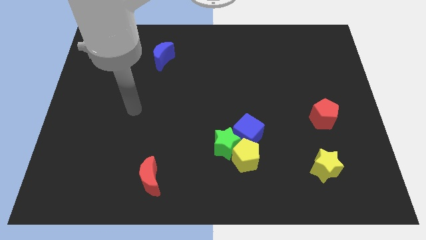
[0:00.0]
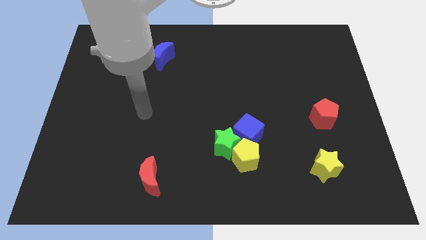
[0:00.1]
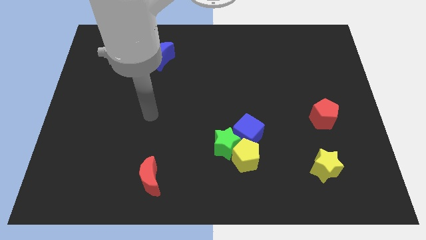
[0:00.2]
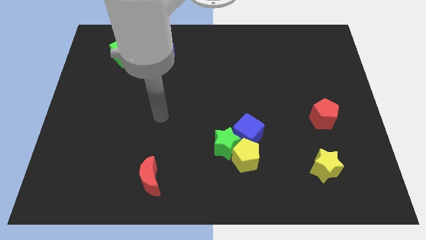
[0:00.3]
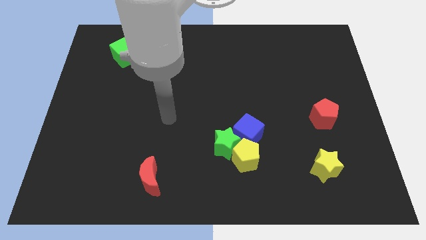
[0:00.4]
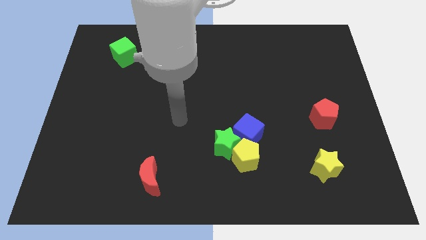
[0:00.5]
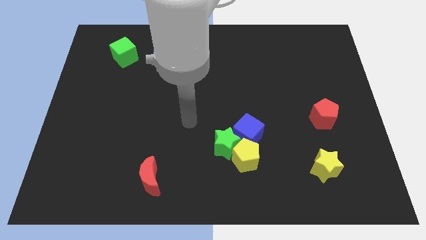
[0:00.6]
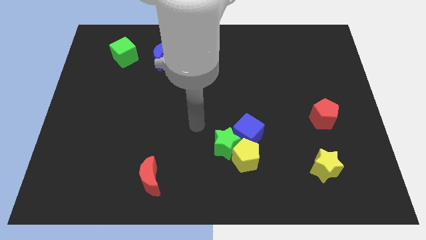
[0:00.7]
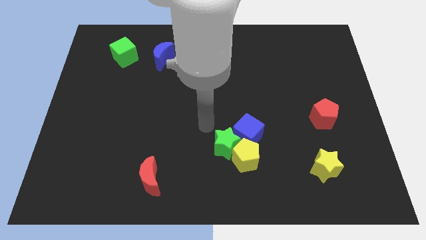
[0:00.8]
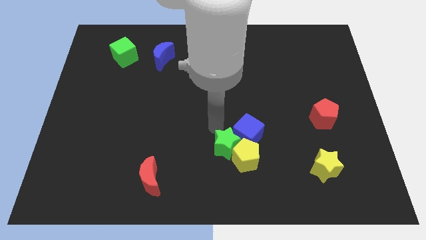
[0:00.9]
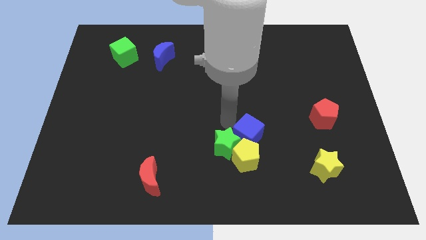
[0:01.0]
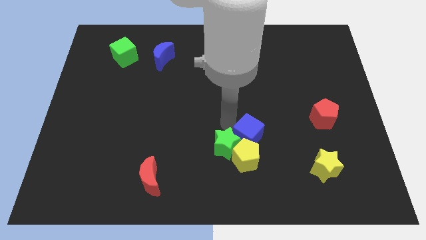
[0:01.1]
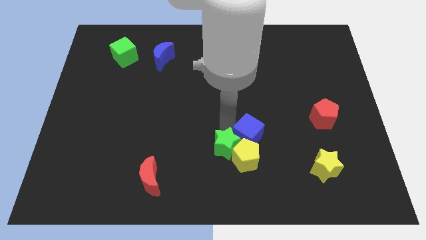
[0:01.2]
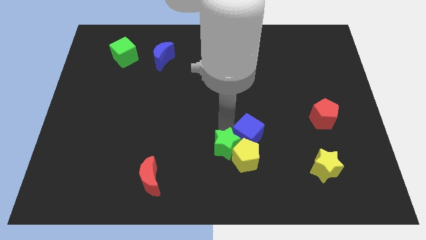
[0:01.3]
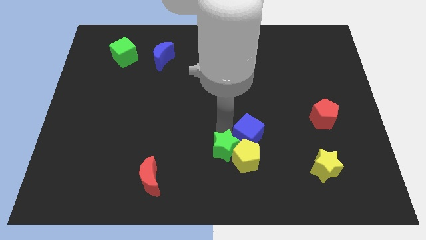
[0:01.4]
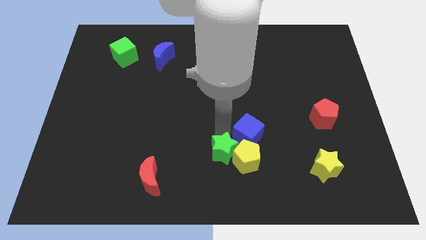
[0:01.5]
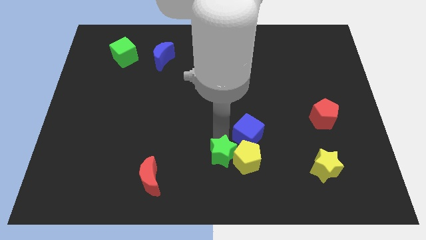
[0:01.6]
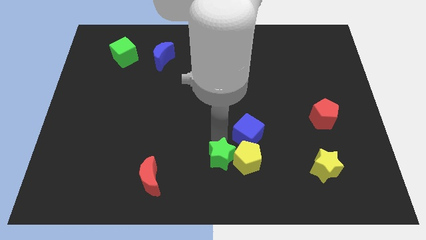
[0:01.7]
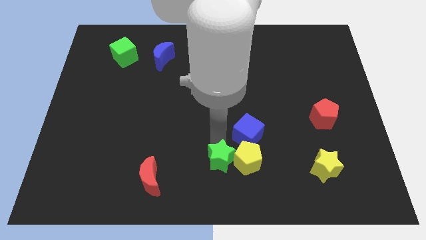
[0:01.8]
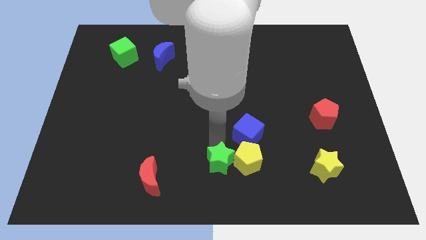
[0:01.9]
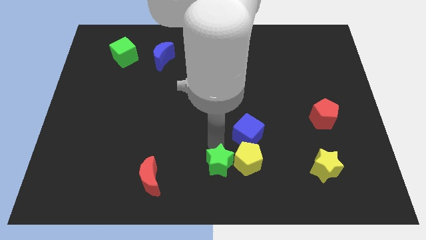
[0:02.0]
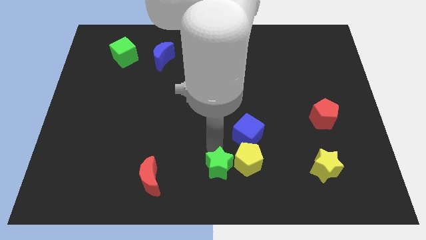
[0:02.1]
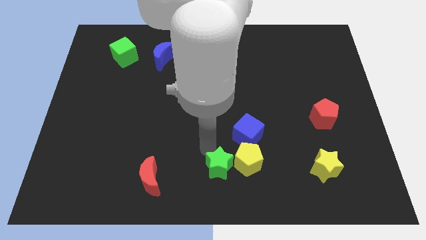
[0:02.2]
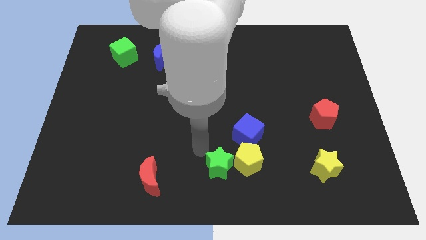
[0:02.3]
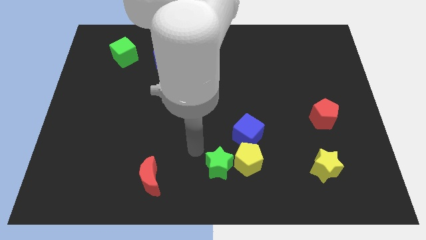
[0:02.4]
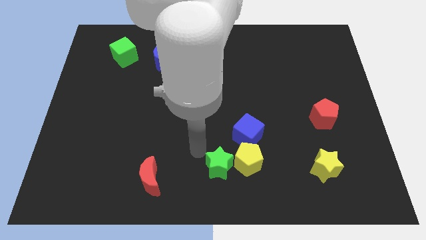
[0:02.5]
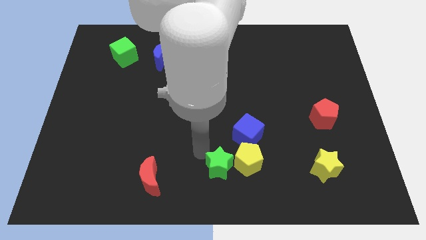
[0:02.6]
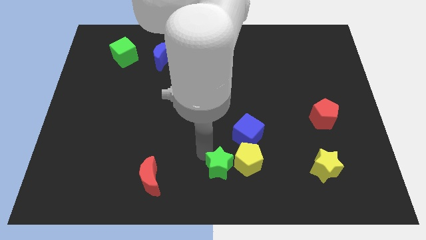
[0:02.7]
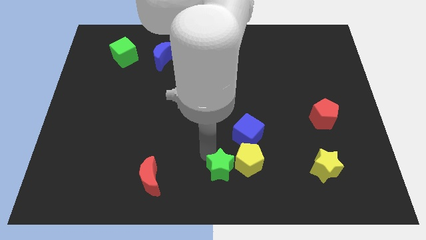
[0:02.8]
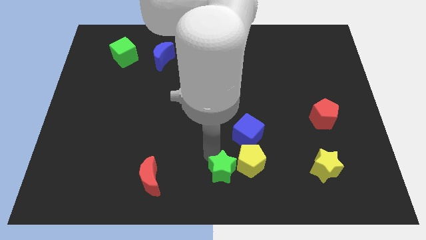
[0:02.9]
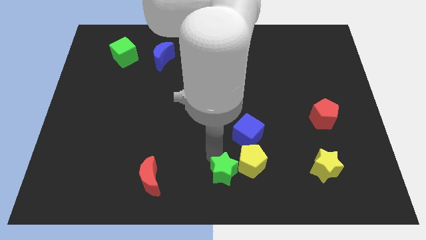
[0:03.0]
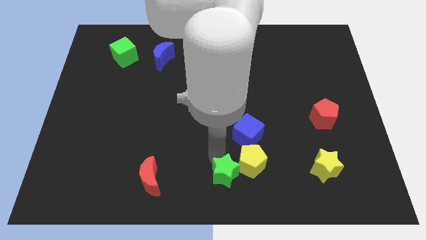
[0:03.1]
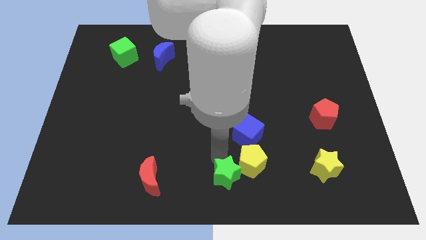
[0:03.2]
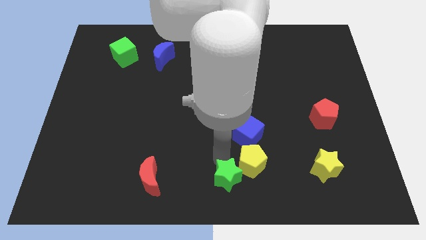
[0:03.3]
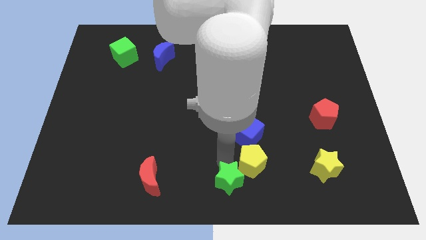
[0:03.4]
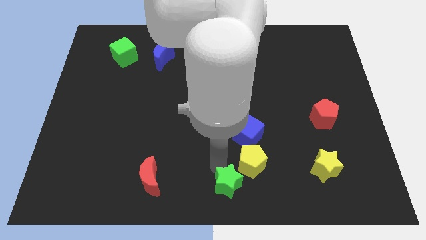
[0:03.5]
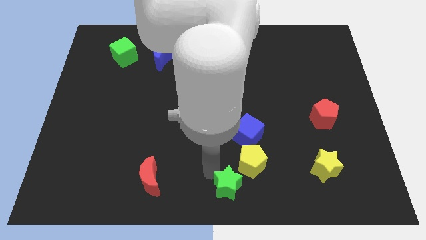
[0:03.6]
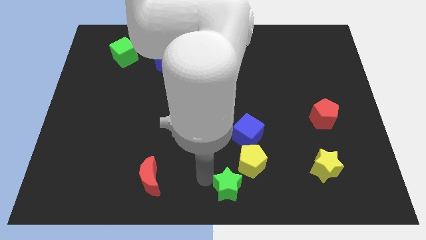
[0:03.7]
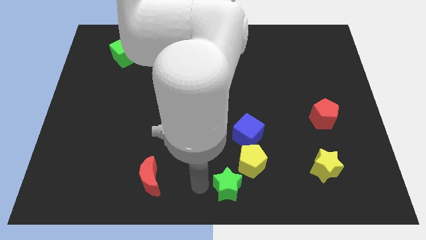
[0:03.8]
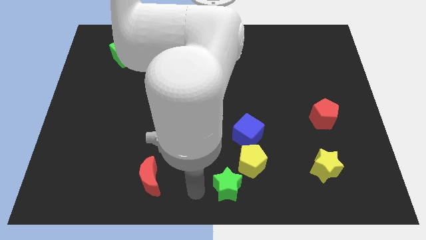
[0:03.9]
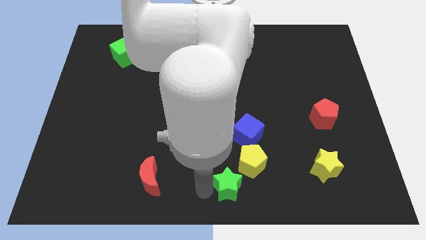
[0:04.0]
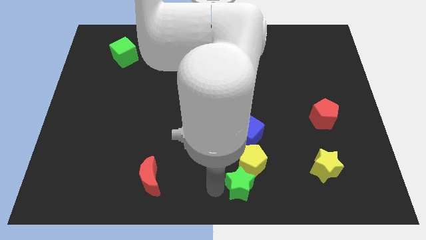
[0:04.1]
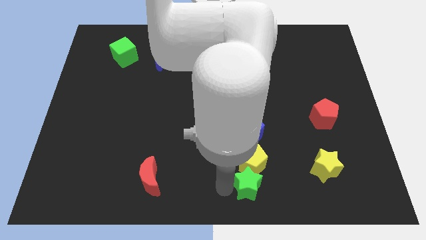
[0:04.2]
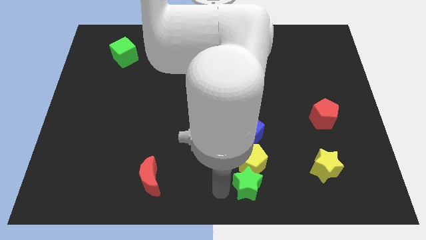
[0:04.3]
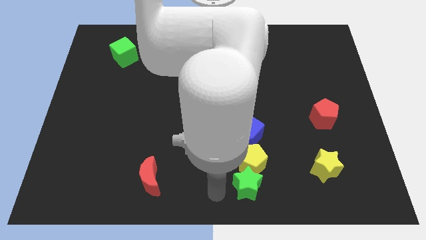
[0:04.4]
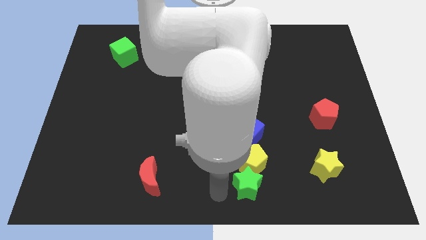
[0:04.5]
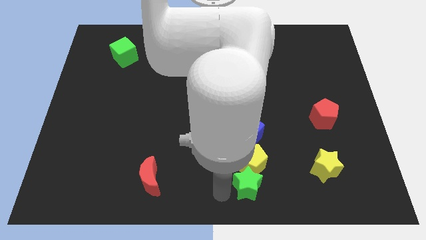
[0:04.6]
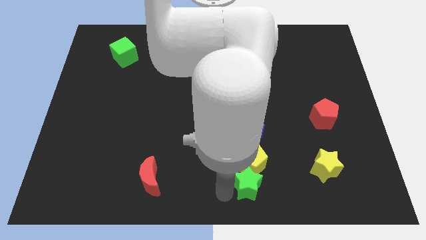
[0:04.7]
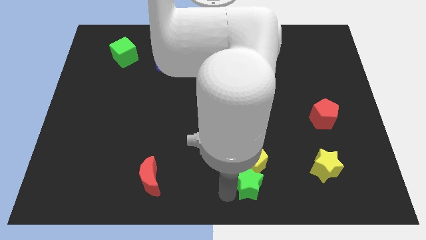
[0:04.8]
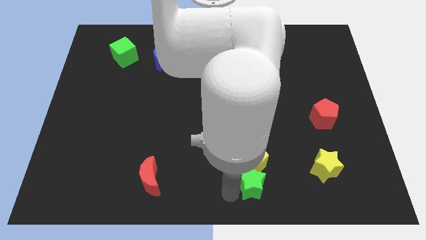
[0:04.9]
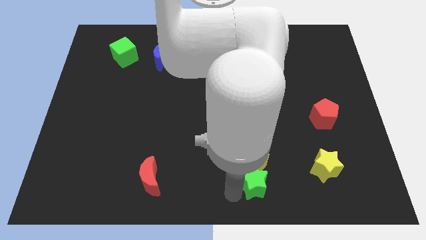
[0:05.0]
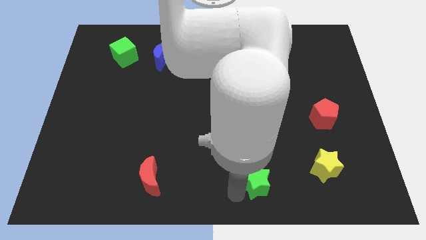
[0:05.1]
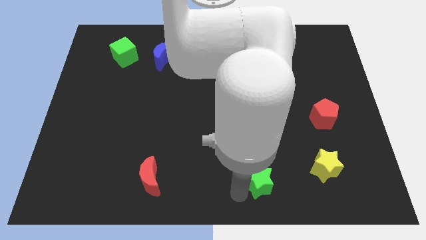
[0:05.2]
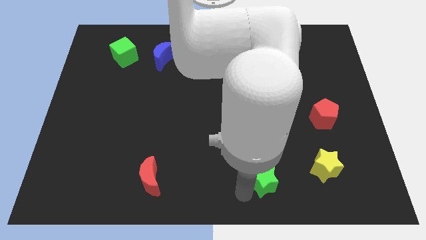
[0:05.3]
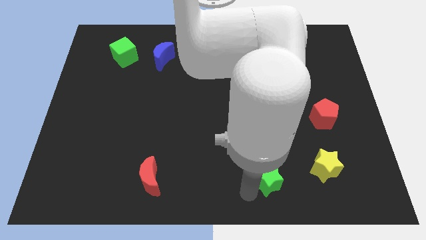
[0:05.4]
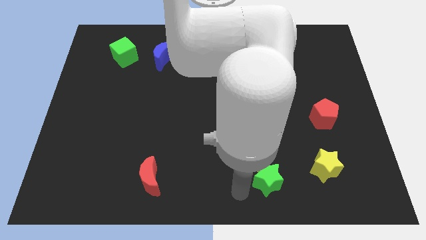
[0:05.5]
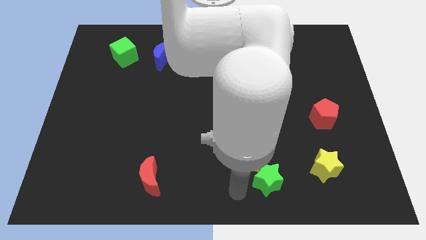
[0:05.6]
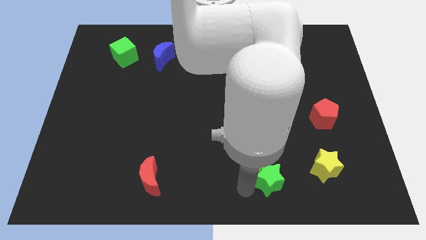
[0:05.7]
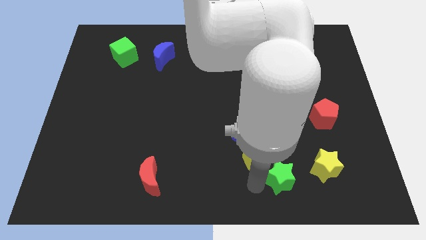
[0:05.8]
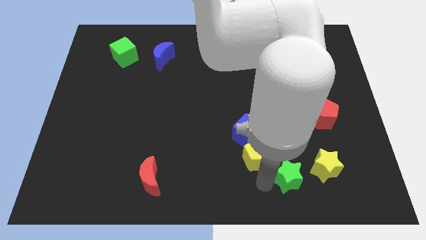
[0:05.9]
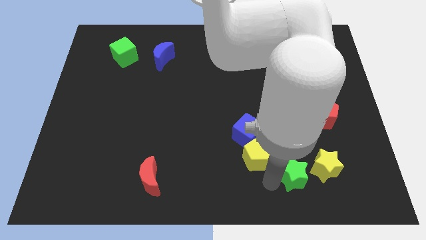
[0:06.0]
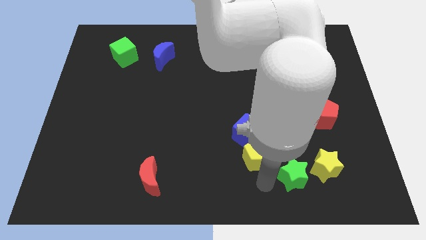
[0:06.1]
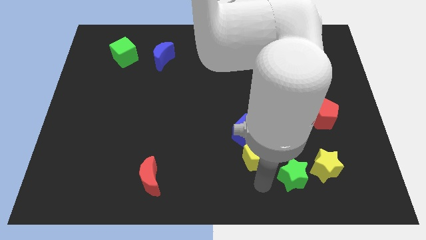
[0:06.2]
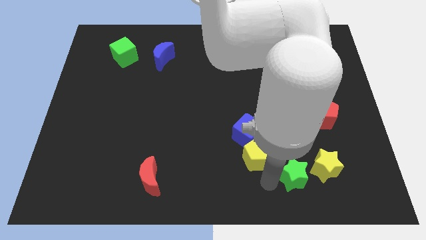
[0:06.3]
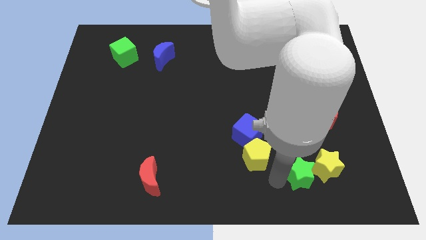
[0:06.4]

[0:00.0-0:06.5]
slide the green star to the yellow star
